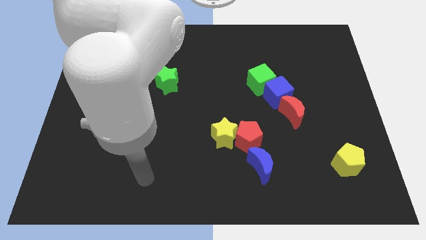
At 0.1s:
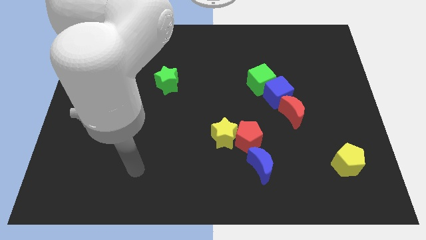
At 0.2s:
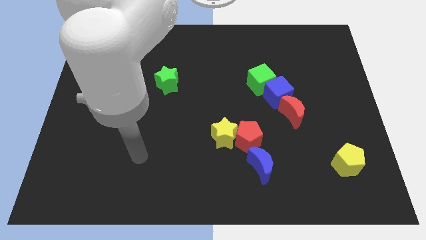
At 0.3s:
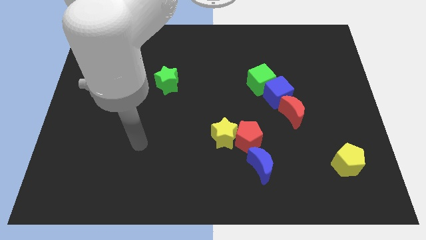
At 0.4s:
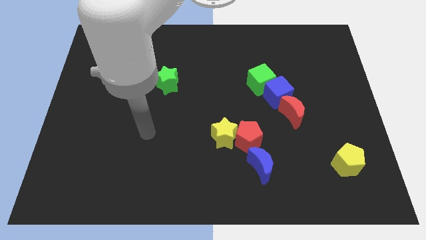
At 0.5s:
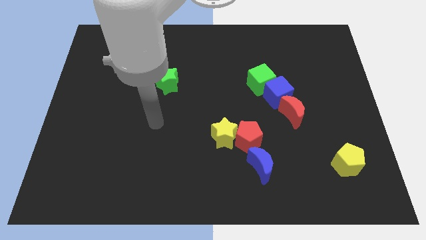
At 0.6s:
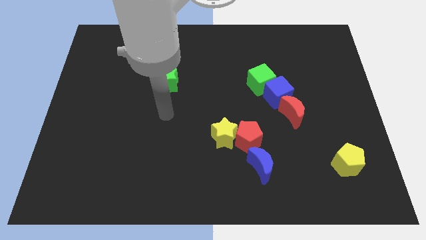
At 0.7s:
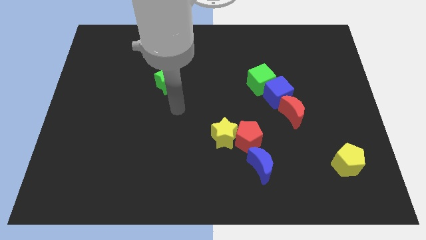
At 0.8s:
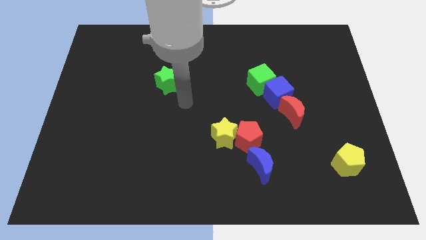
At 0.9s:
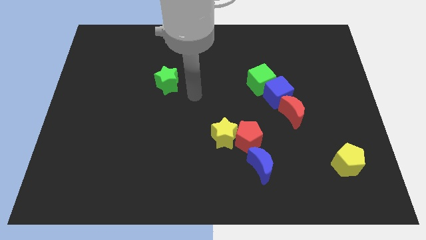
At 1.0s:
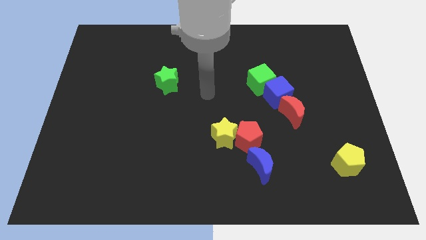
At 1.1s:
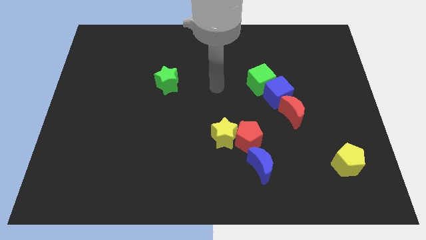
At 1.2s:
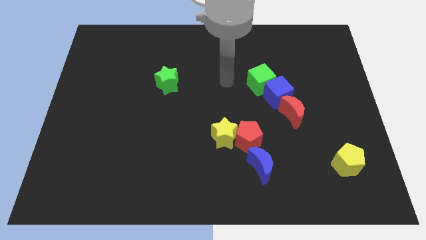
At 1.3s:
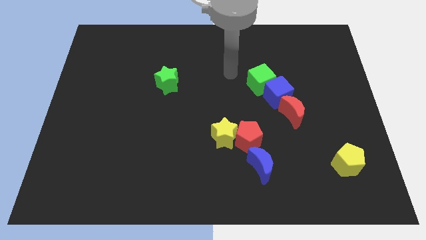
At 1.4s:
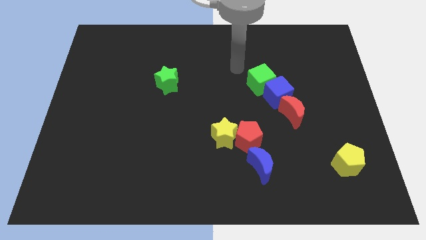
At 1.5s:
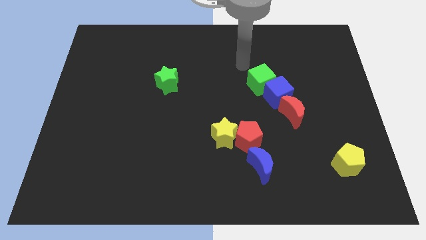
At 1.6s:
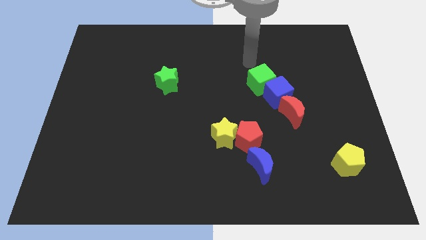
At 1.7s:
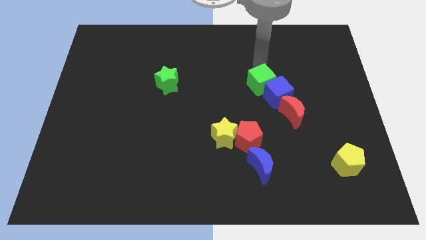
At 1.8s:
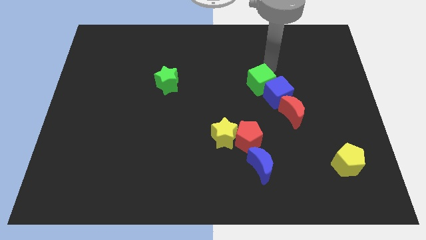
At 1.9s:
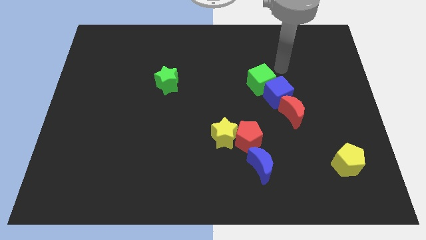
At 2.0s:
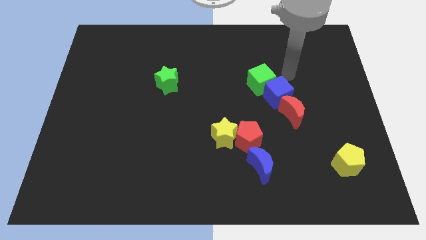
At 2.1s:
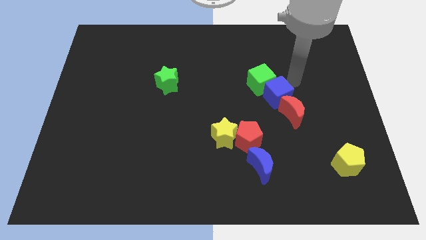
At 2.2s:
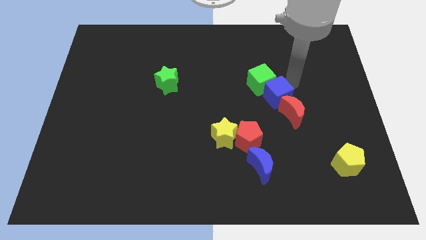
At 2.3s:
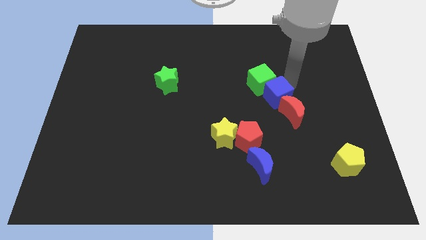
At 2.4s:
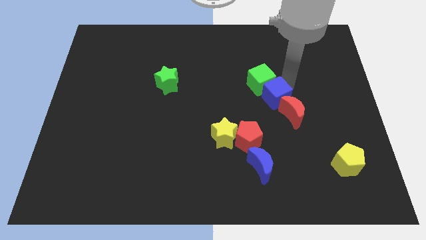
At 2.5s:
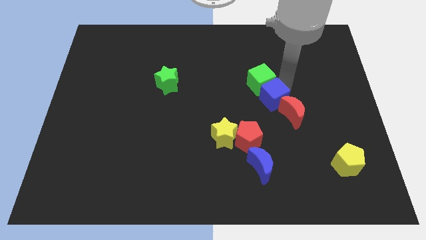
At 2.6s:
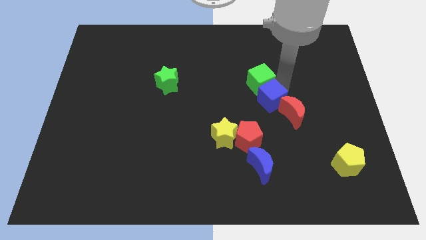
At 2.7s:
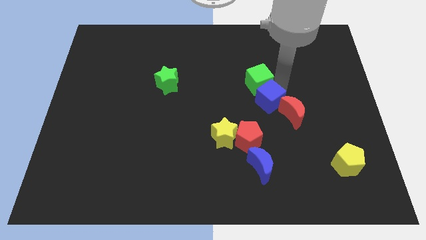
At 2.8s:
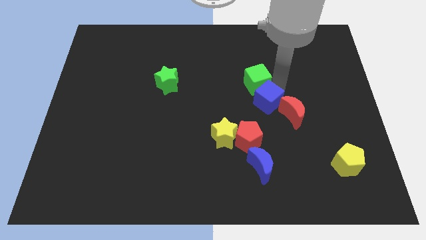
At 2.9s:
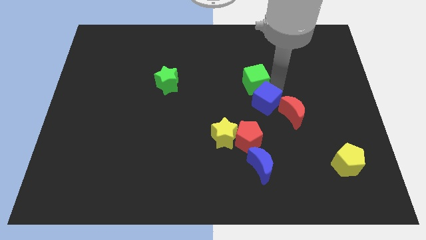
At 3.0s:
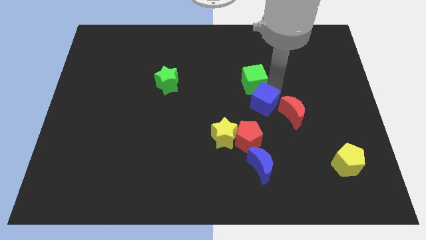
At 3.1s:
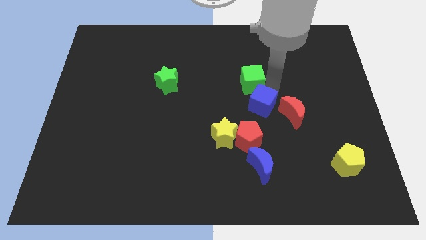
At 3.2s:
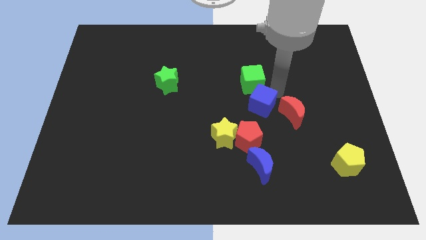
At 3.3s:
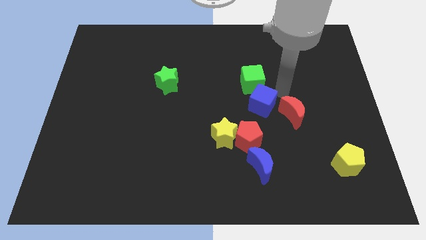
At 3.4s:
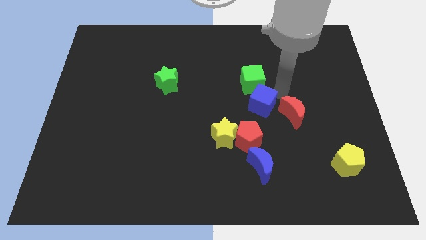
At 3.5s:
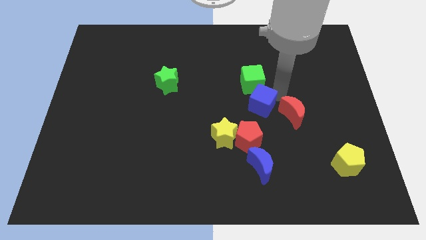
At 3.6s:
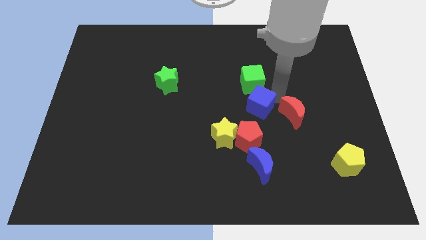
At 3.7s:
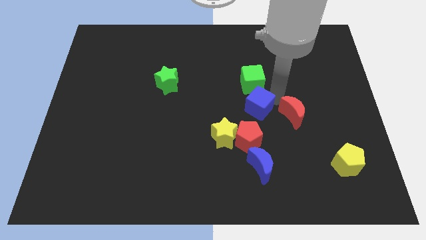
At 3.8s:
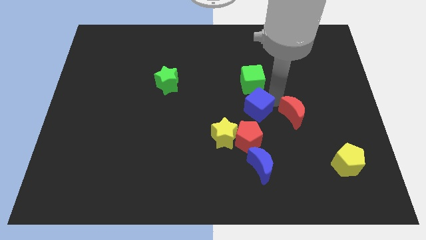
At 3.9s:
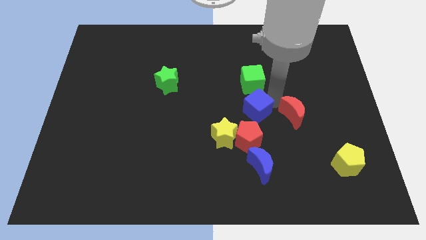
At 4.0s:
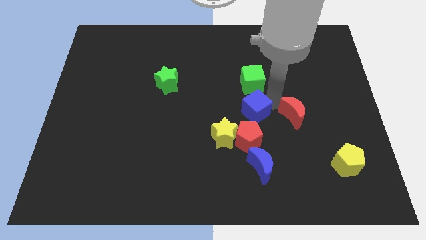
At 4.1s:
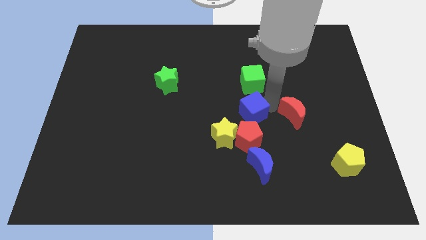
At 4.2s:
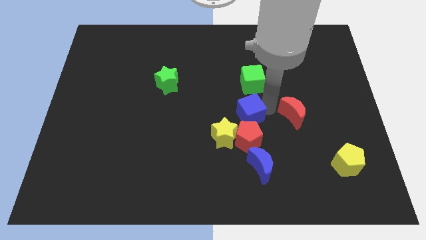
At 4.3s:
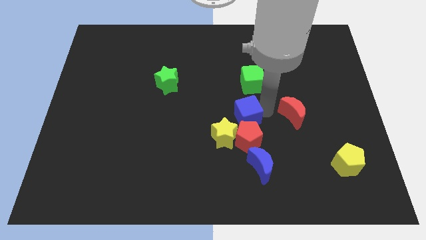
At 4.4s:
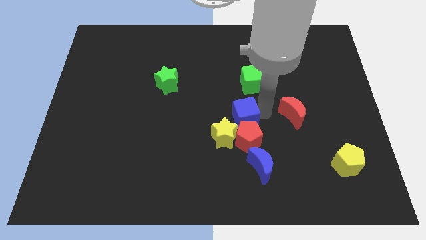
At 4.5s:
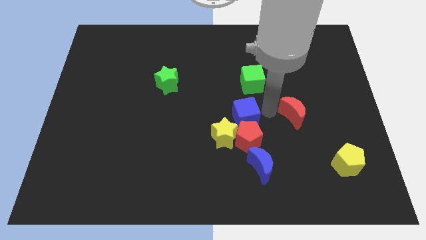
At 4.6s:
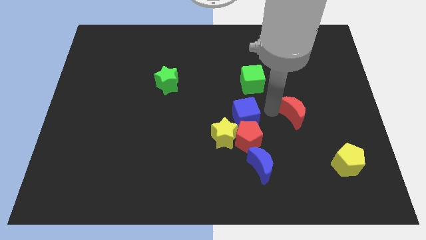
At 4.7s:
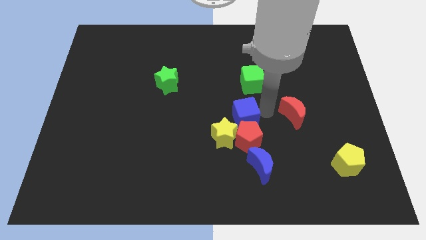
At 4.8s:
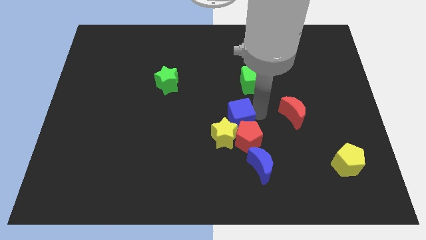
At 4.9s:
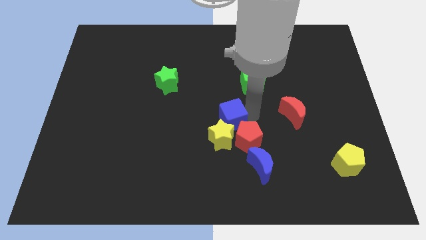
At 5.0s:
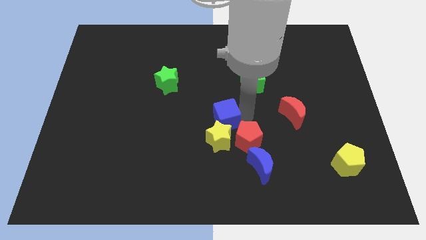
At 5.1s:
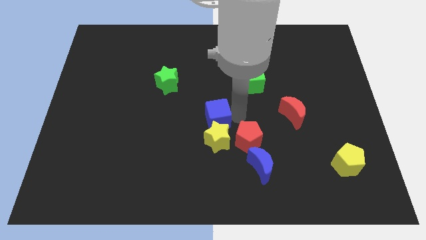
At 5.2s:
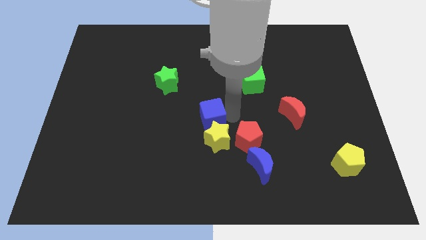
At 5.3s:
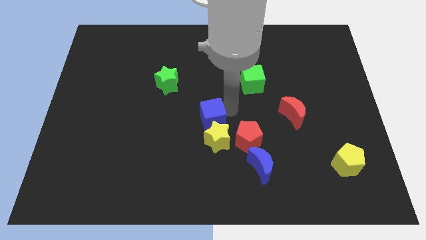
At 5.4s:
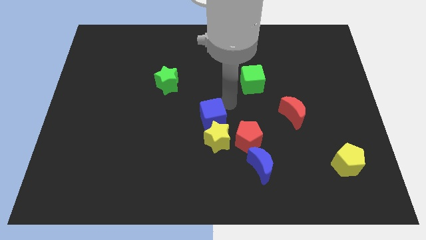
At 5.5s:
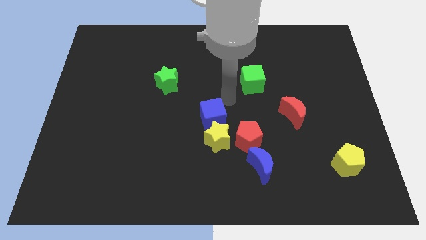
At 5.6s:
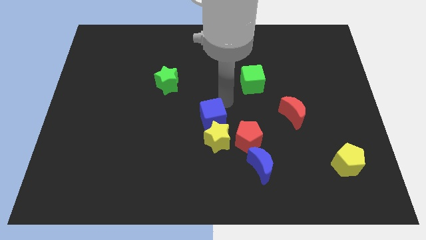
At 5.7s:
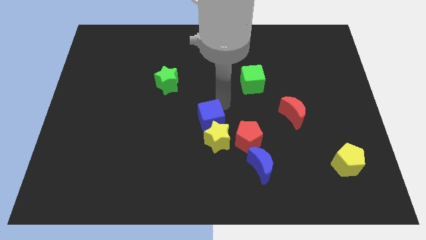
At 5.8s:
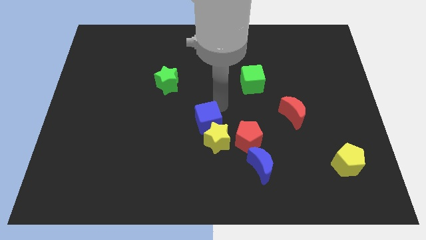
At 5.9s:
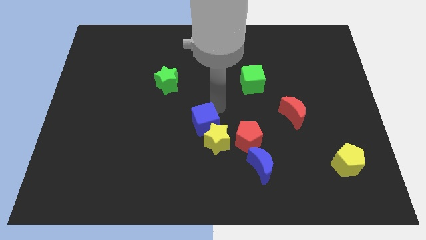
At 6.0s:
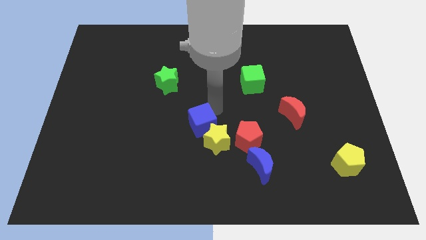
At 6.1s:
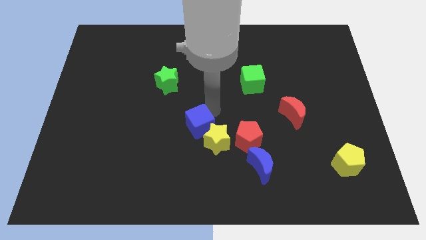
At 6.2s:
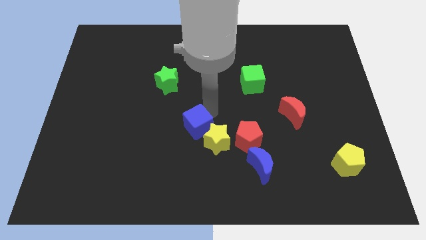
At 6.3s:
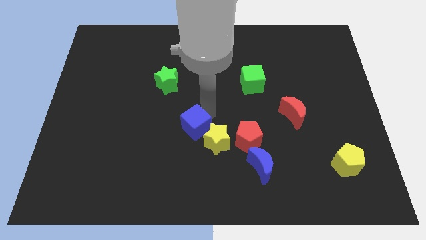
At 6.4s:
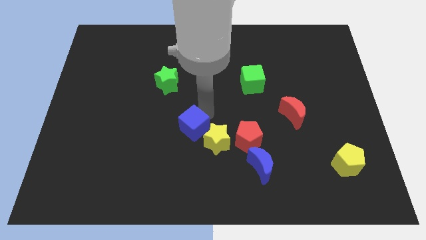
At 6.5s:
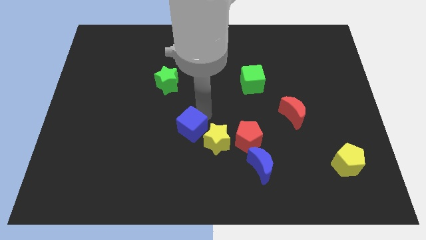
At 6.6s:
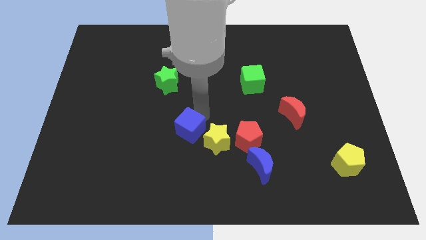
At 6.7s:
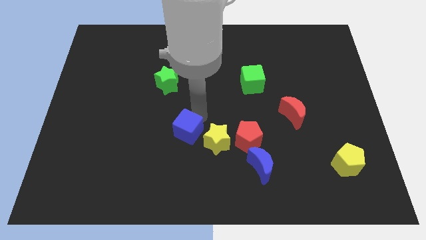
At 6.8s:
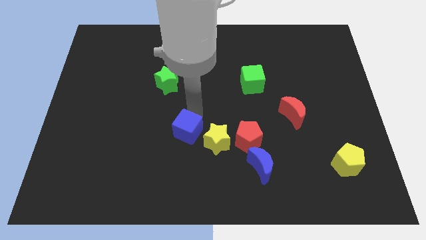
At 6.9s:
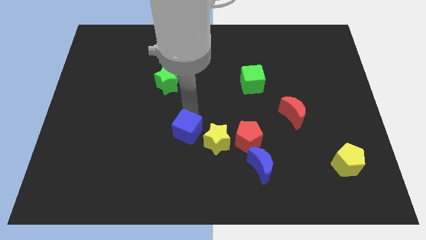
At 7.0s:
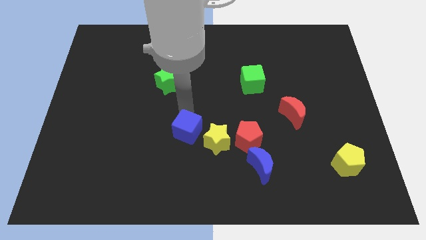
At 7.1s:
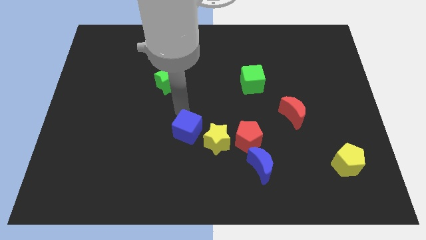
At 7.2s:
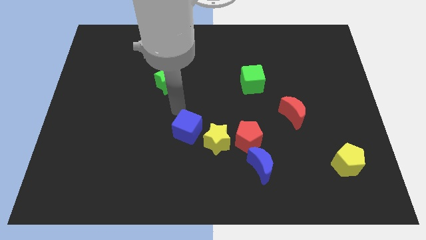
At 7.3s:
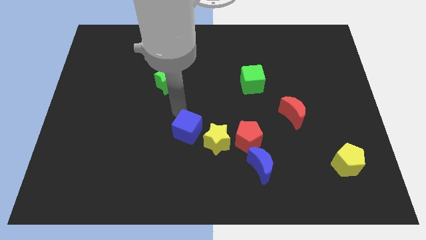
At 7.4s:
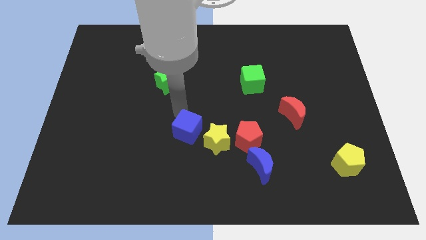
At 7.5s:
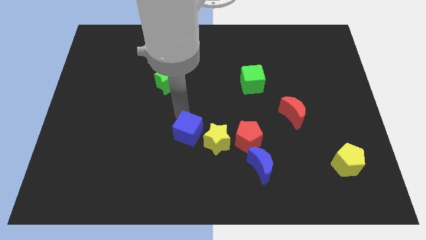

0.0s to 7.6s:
push the blue cube diagonally downwards and left

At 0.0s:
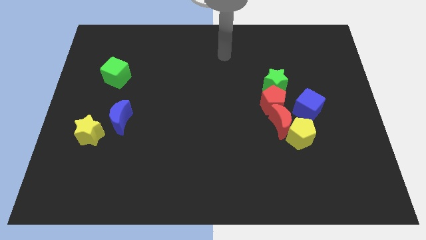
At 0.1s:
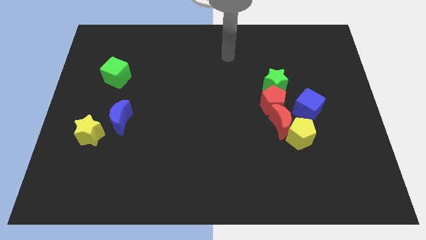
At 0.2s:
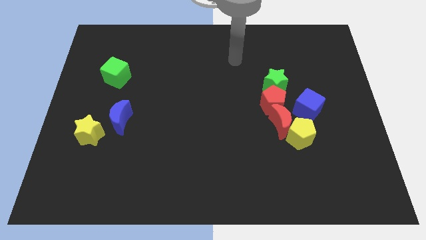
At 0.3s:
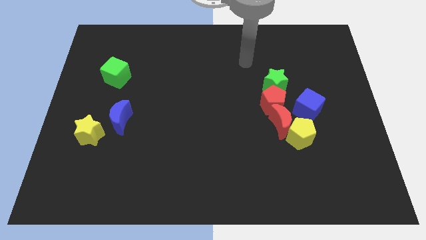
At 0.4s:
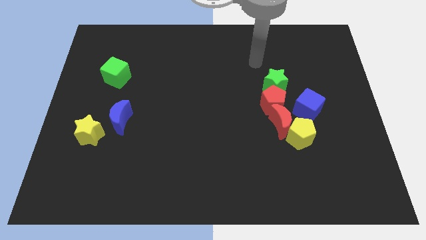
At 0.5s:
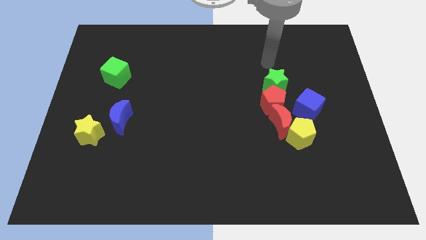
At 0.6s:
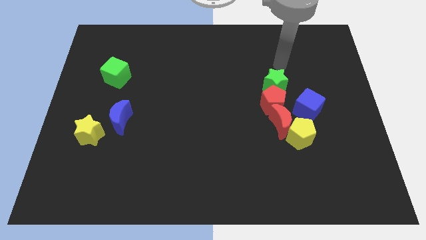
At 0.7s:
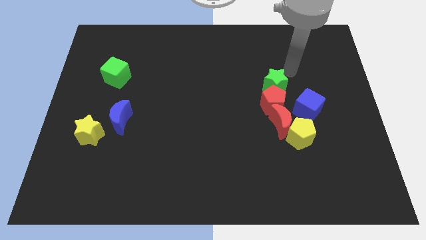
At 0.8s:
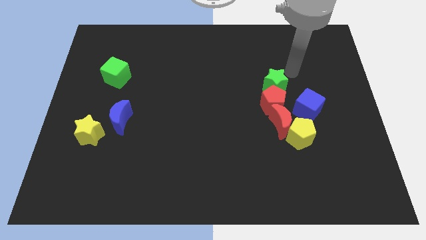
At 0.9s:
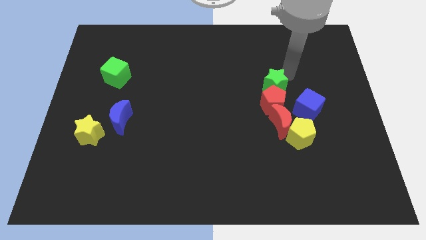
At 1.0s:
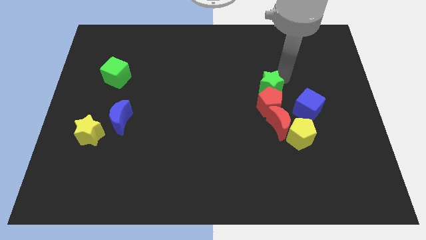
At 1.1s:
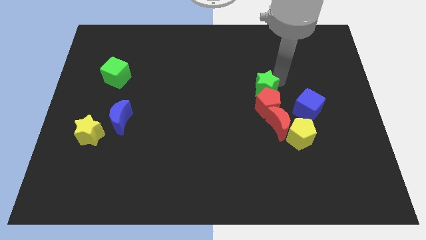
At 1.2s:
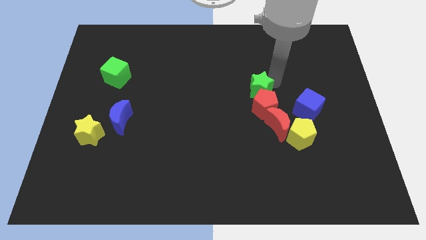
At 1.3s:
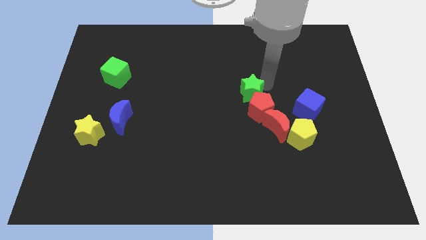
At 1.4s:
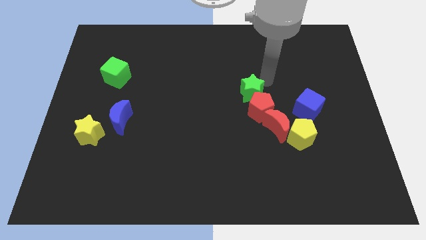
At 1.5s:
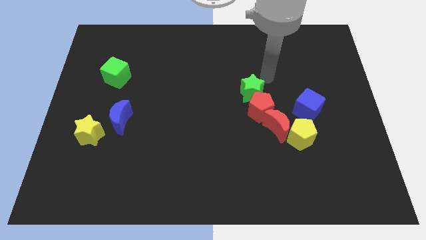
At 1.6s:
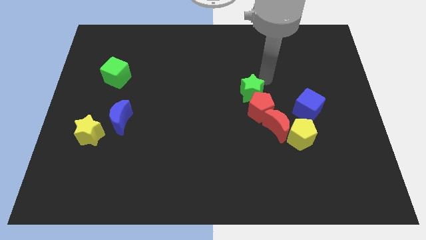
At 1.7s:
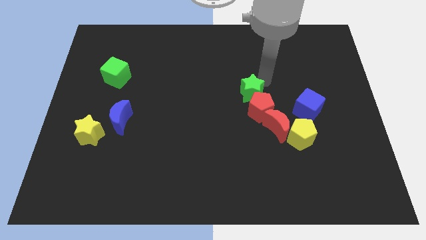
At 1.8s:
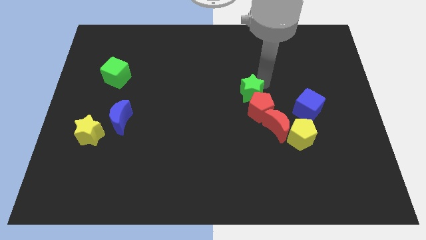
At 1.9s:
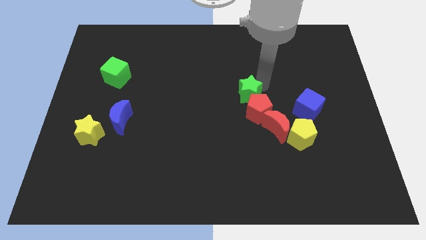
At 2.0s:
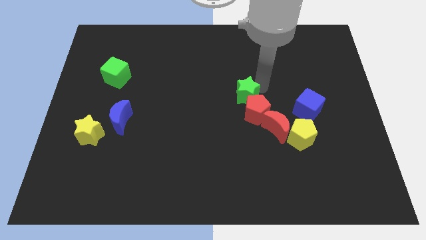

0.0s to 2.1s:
slightly move the green star diagonally down and to the left
